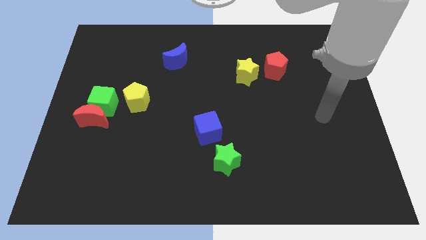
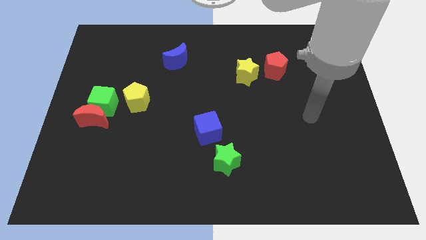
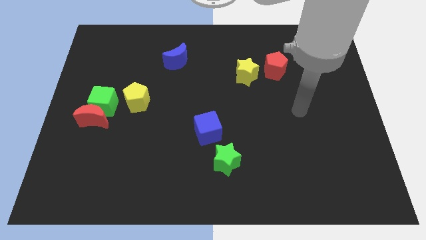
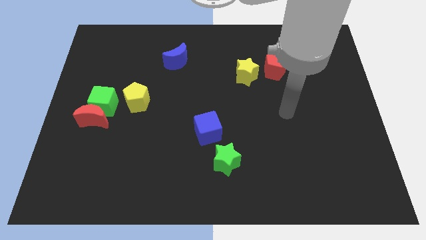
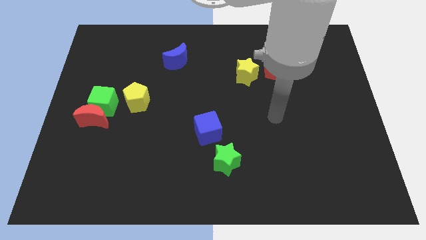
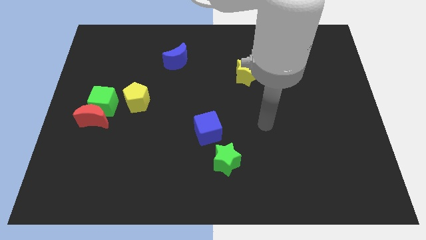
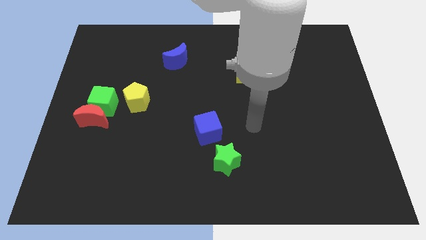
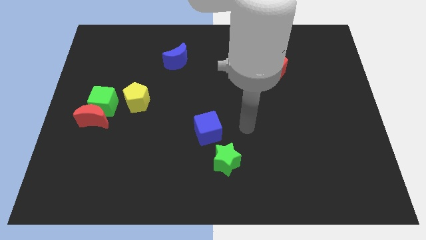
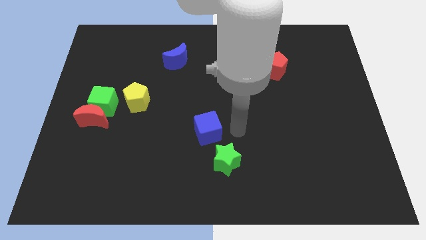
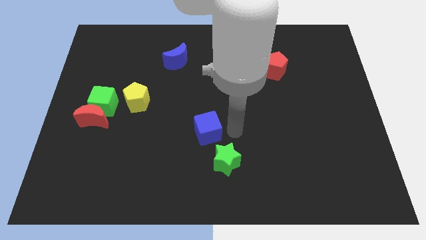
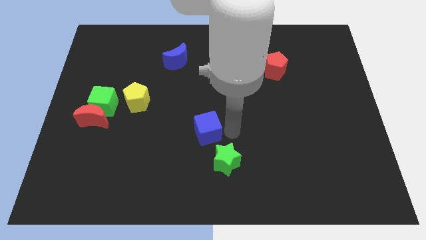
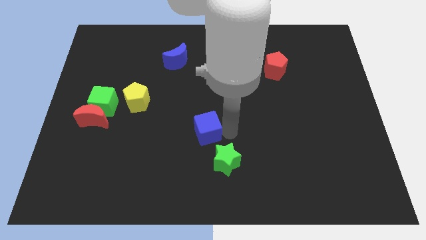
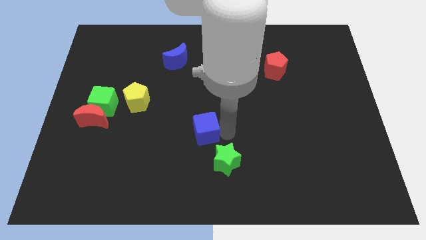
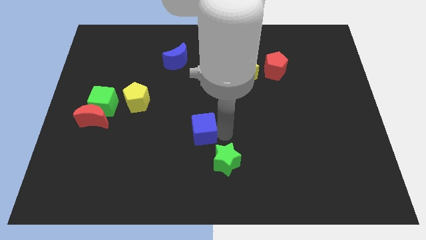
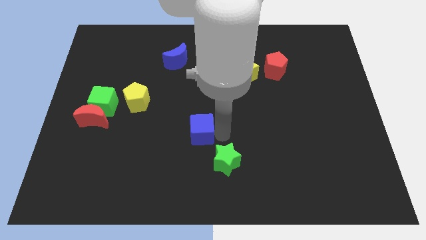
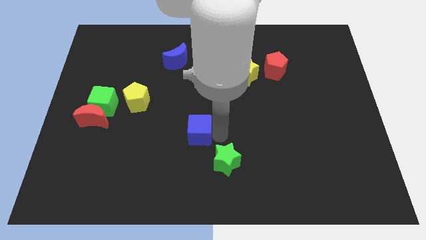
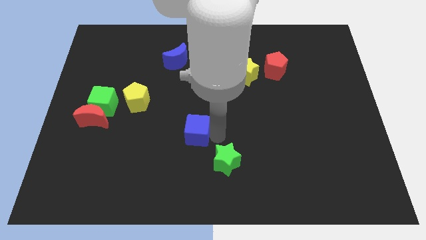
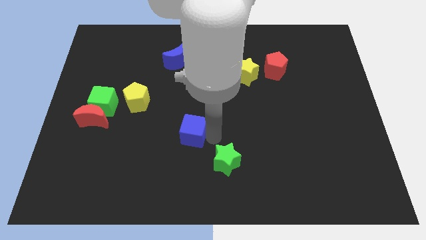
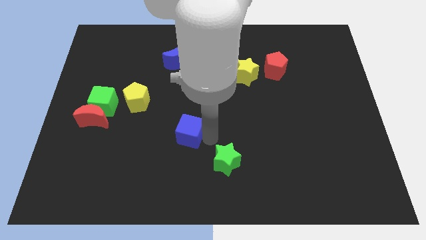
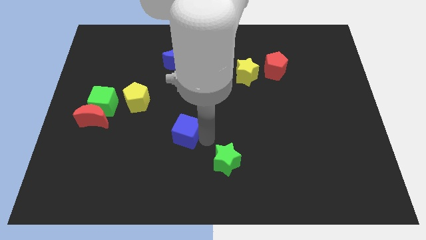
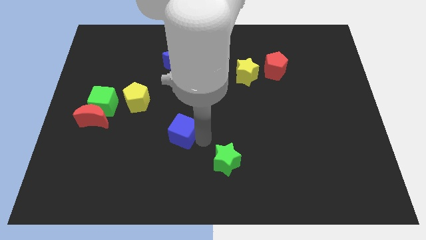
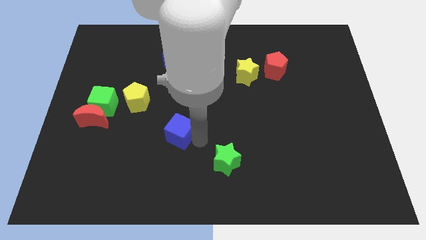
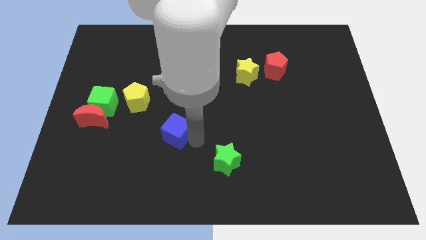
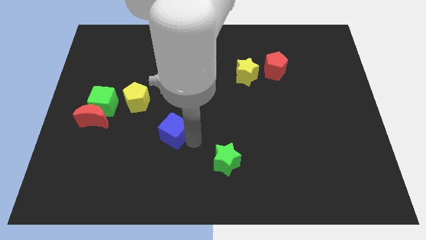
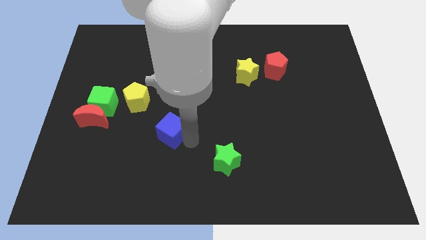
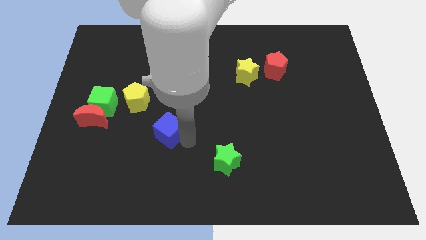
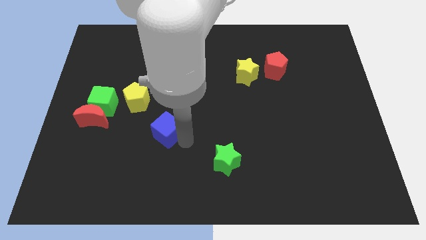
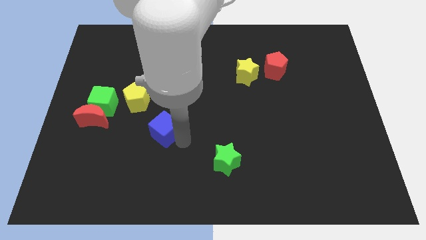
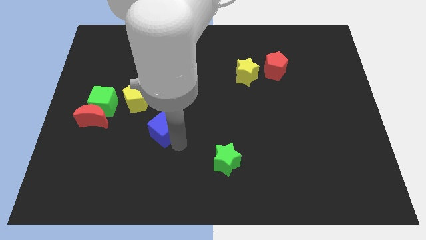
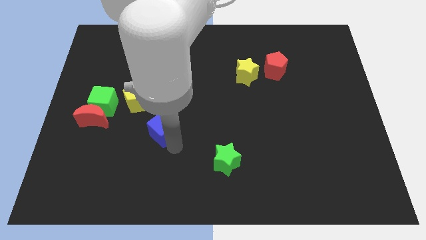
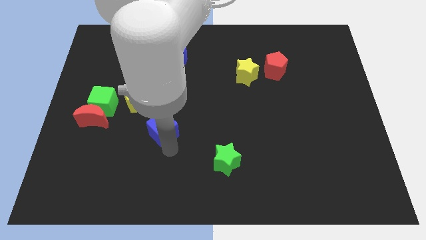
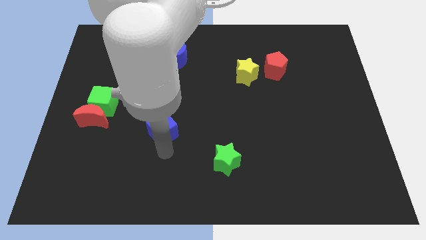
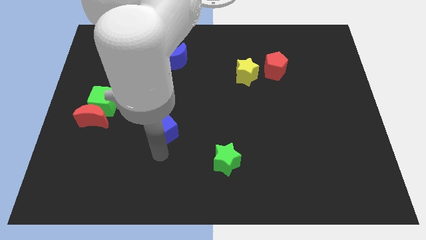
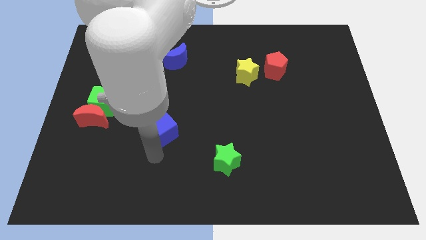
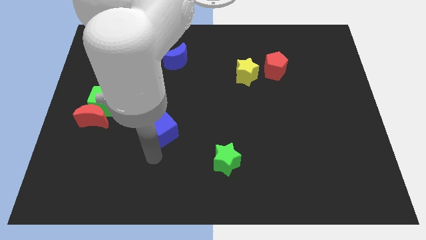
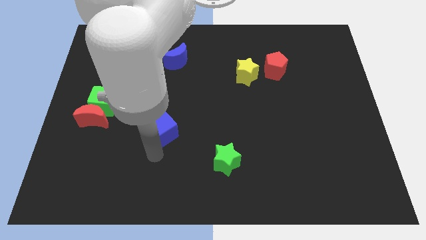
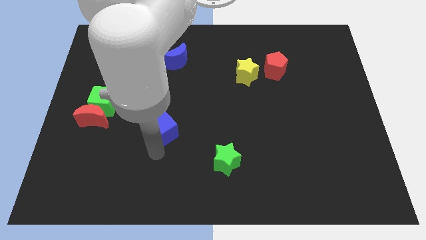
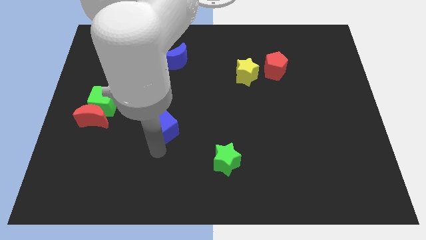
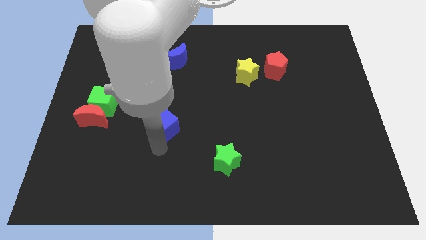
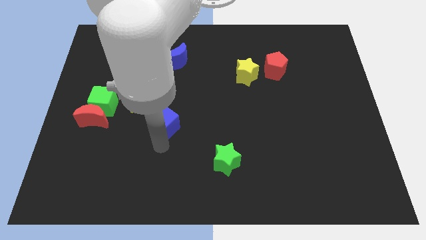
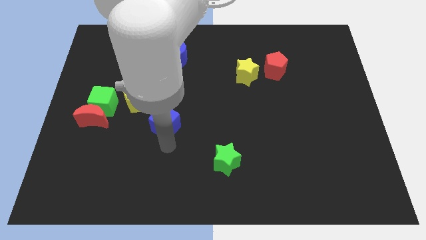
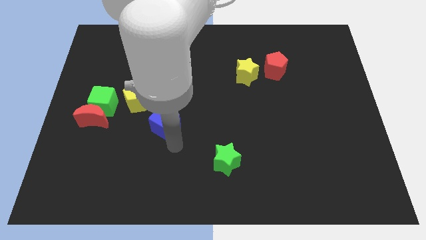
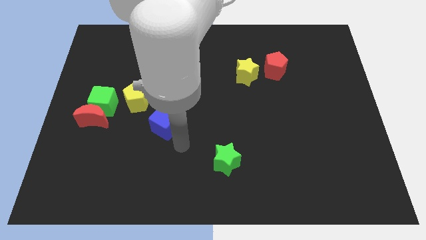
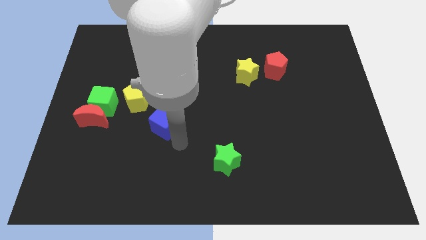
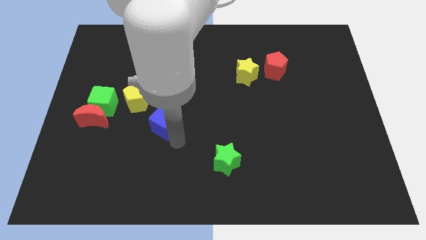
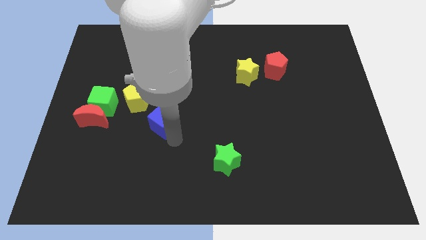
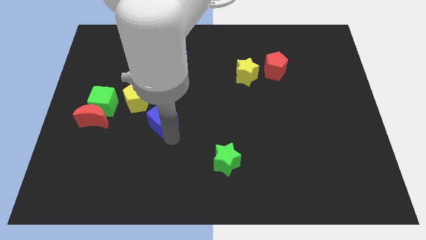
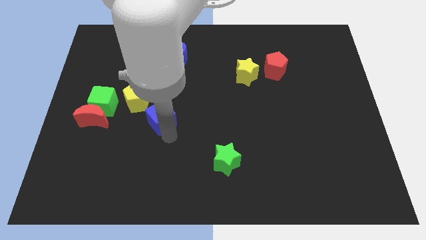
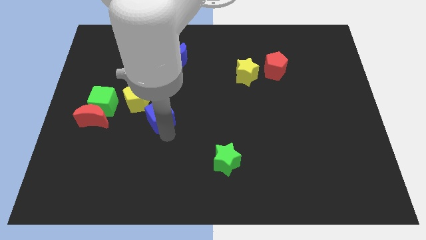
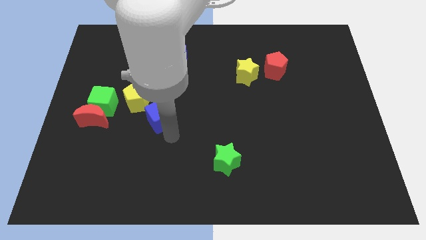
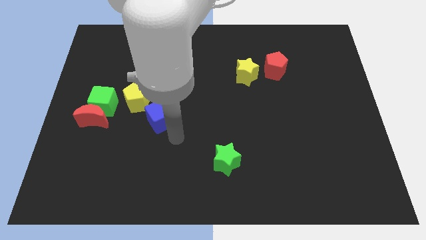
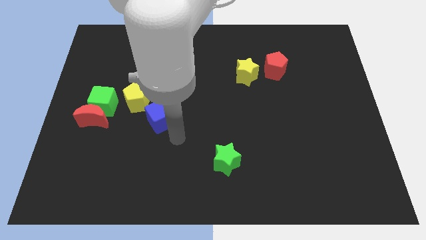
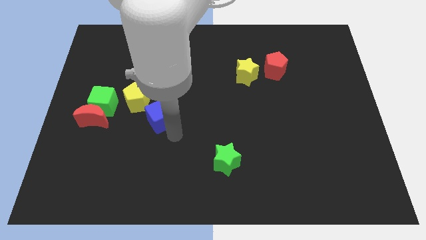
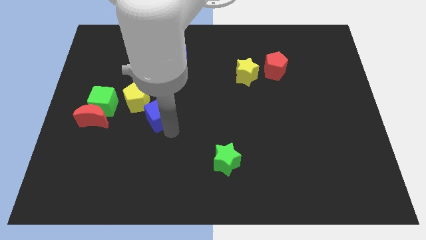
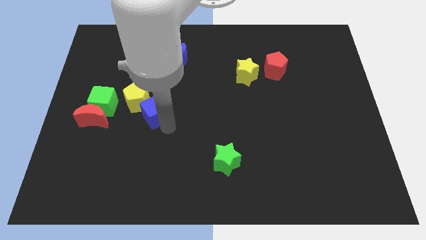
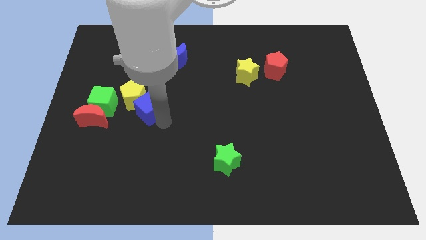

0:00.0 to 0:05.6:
slide the blue cube towards the yellow pentagon

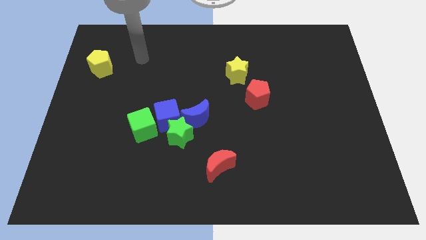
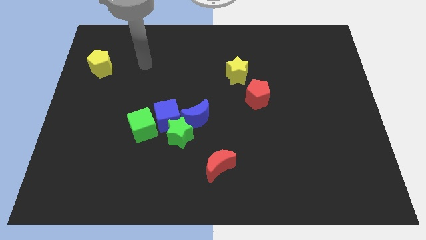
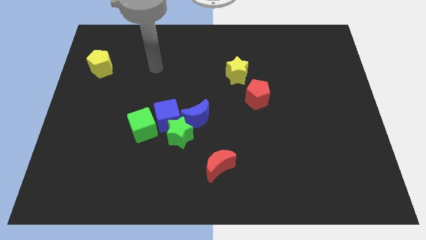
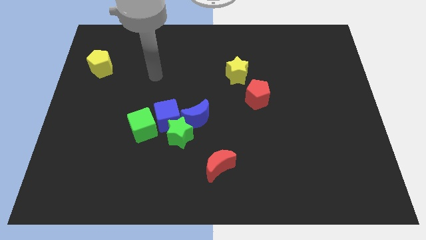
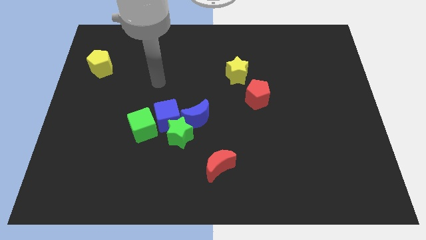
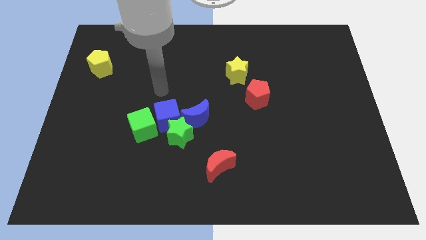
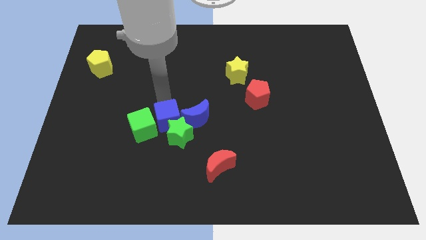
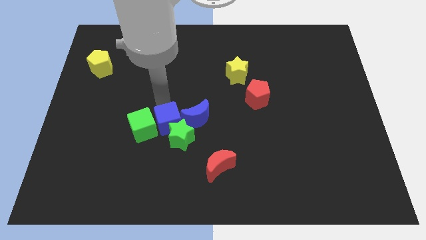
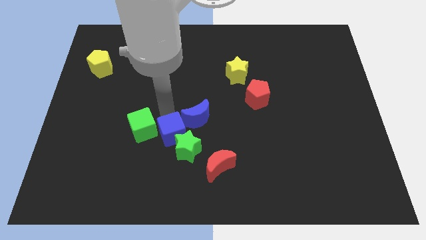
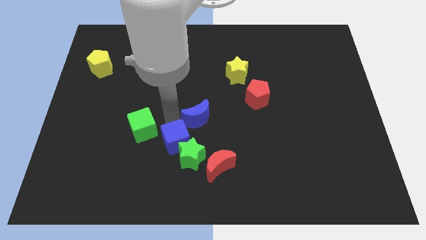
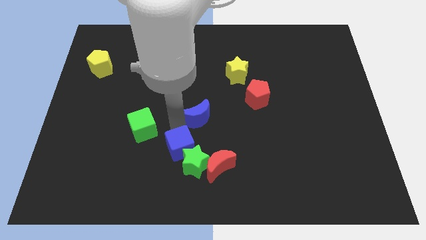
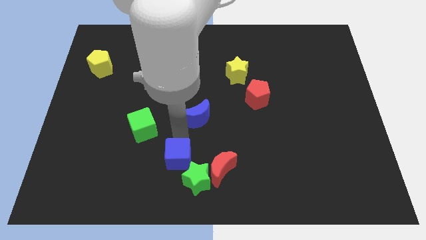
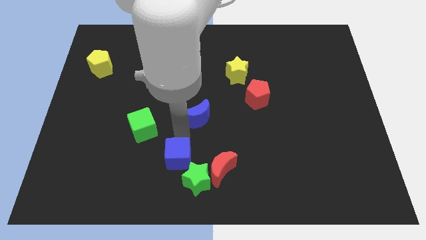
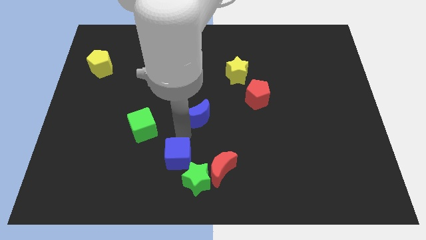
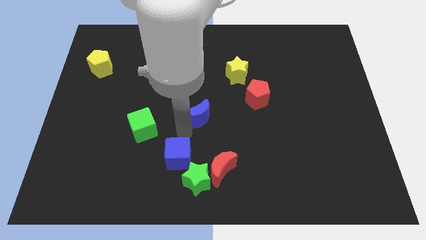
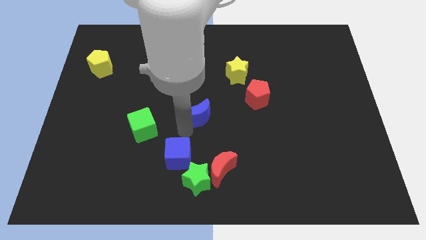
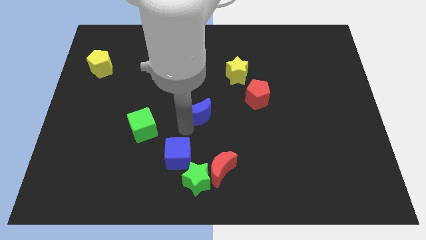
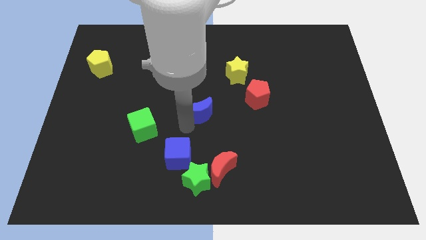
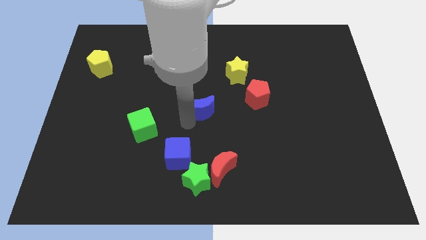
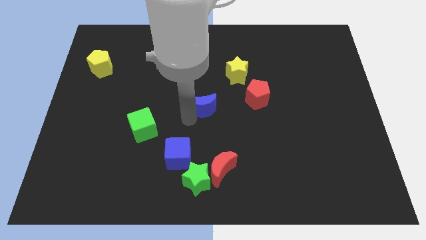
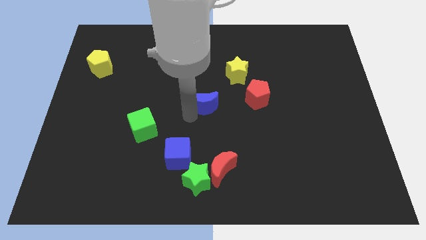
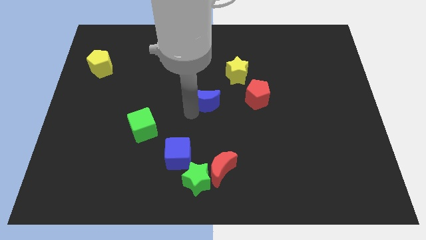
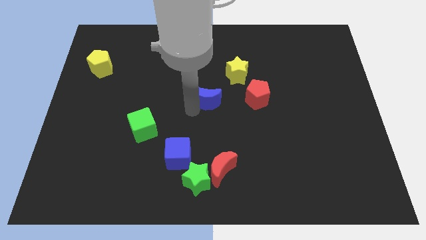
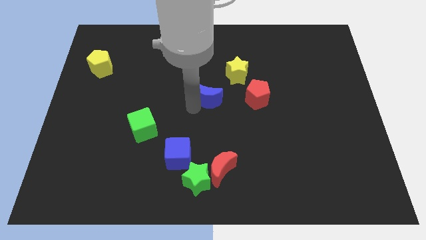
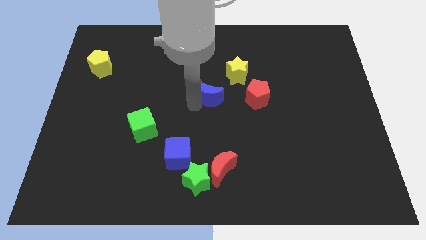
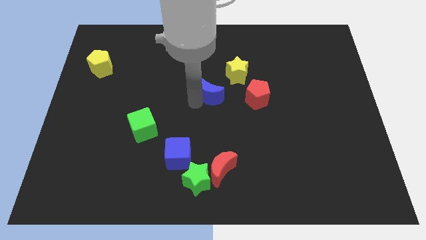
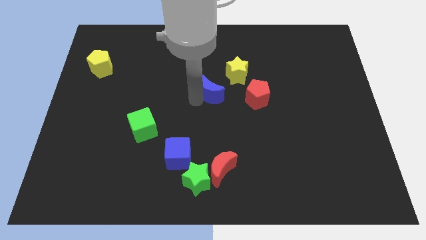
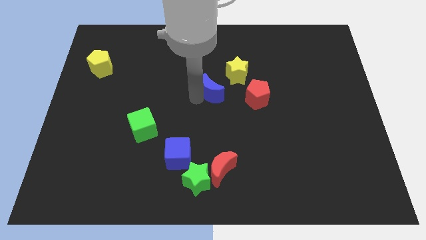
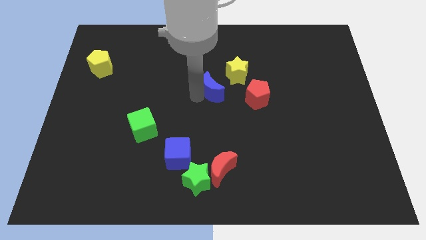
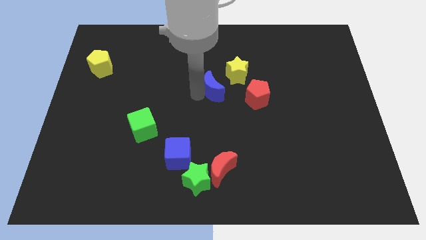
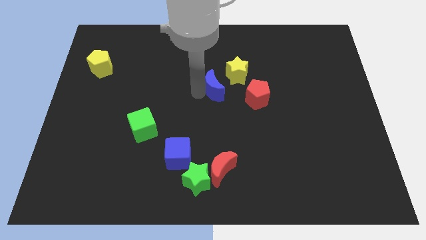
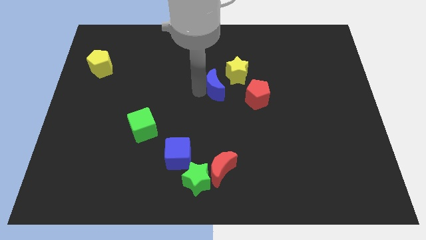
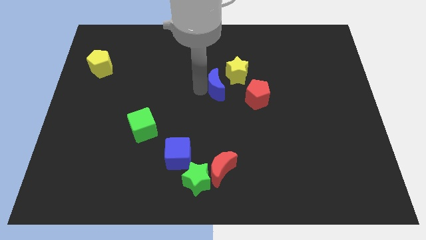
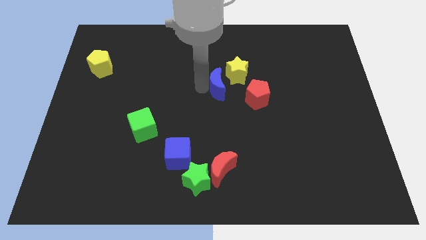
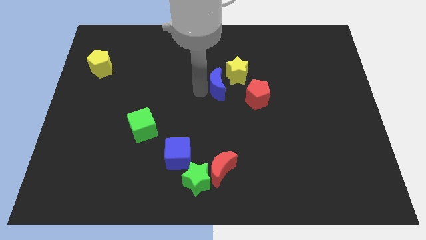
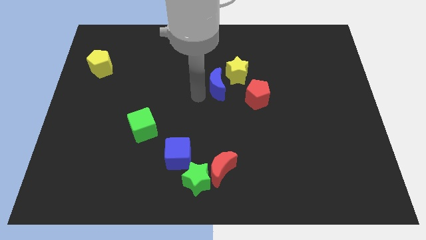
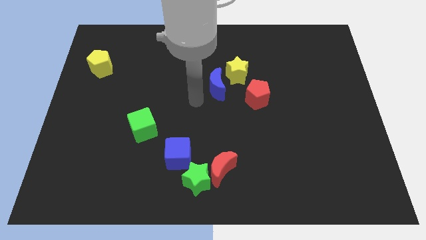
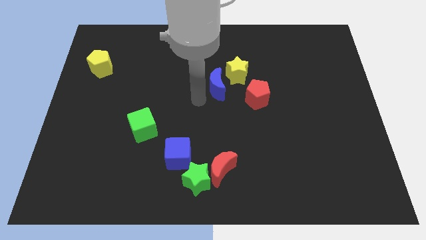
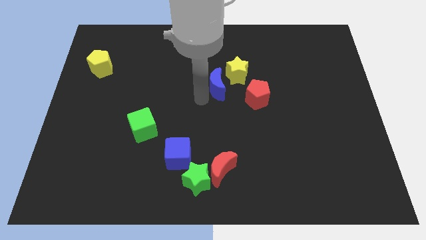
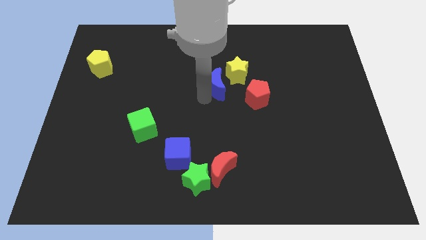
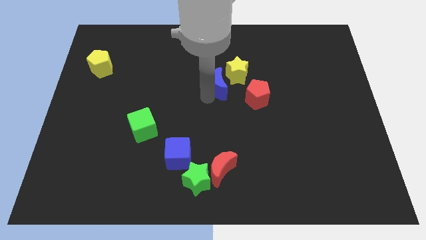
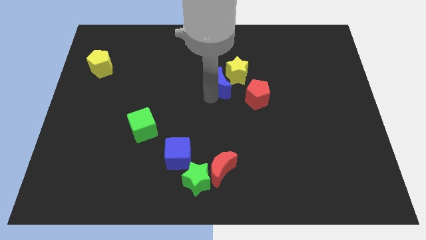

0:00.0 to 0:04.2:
move the blue moon to the yellow star
